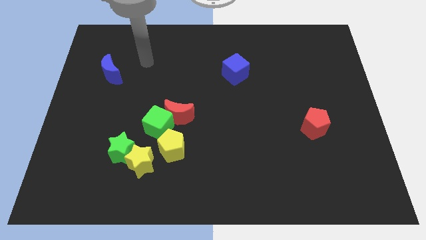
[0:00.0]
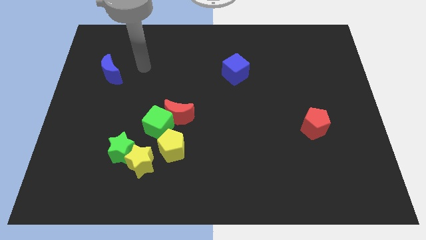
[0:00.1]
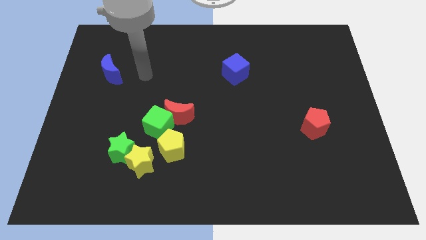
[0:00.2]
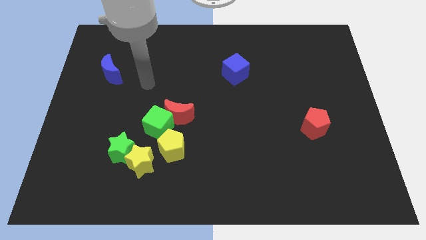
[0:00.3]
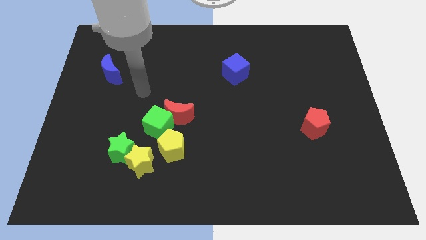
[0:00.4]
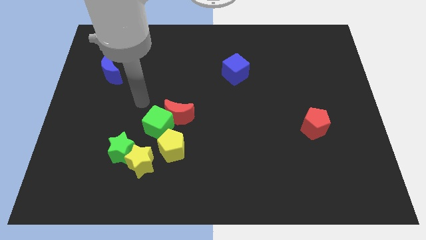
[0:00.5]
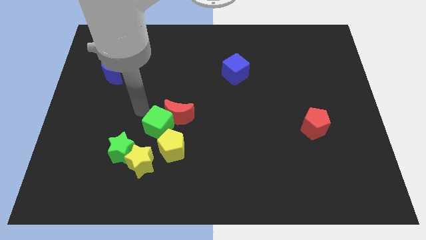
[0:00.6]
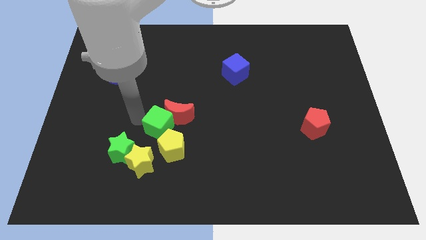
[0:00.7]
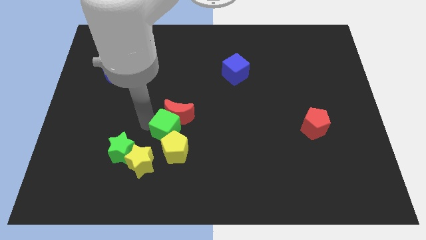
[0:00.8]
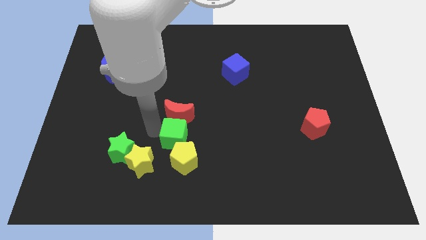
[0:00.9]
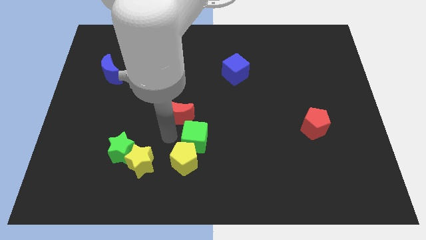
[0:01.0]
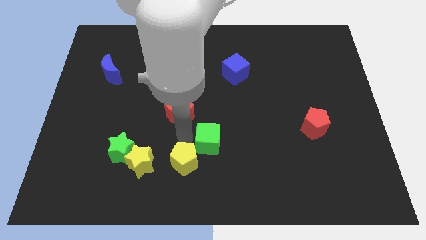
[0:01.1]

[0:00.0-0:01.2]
pull the red moon apart from the green cube and yellow pentagon

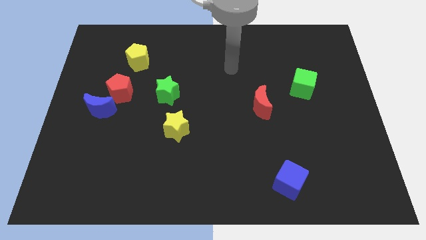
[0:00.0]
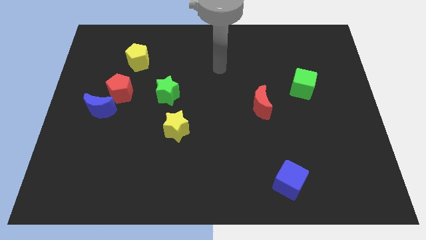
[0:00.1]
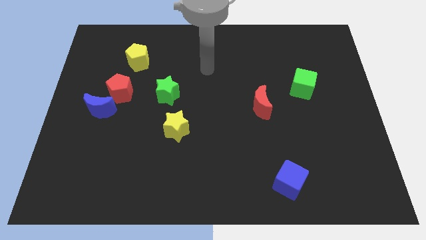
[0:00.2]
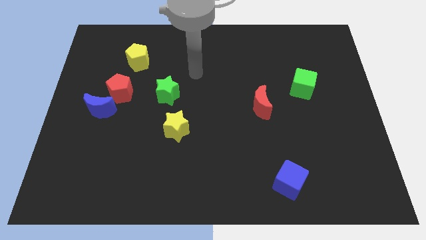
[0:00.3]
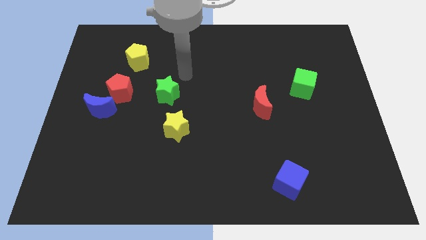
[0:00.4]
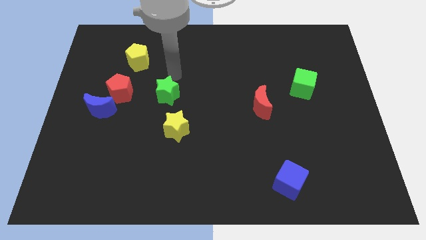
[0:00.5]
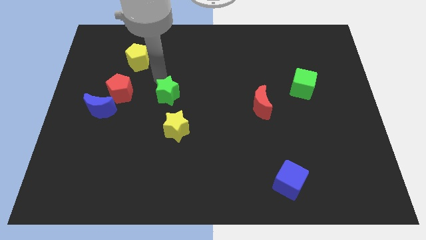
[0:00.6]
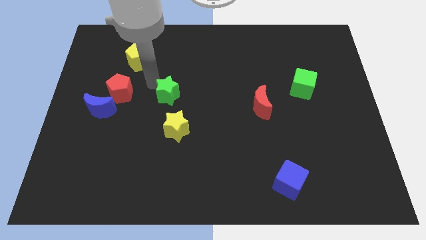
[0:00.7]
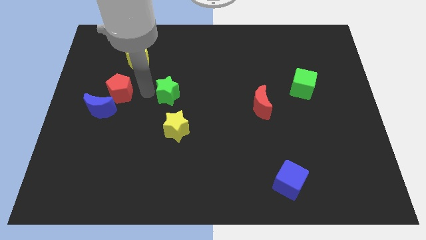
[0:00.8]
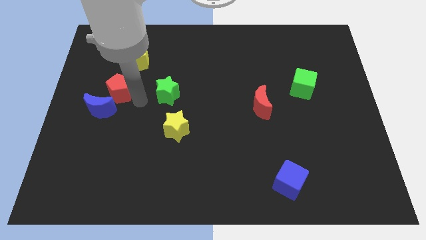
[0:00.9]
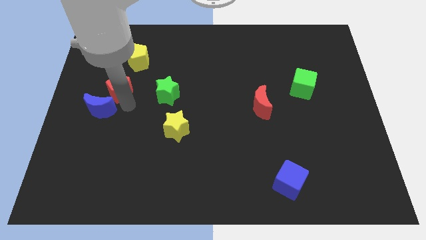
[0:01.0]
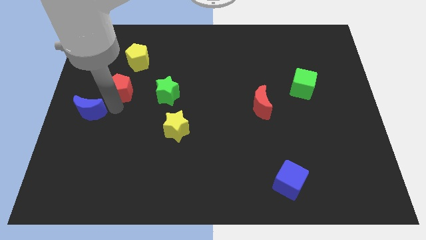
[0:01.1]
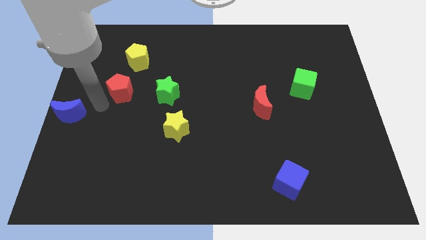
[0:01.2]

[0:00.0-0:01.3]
pull the red pentagon apart from the blue moon

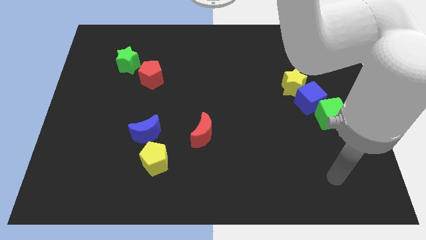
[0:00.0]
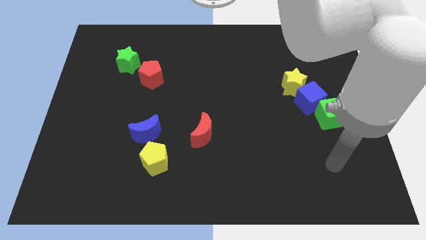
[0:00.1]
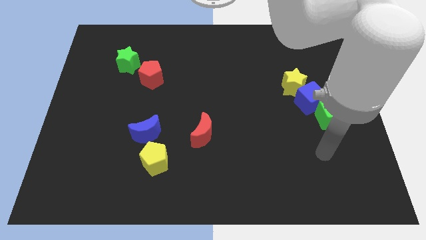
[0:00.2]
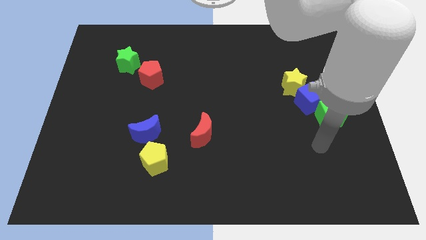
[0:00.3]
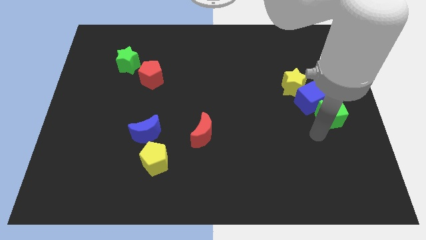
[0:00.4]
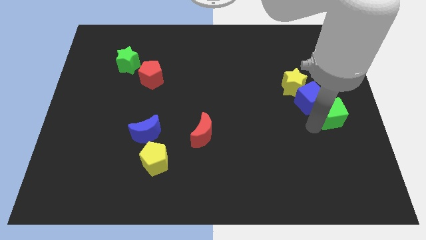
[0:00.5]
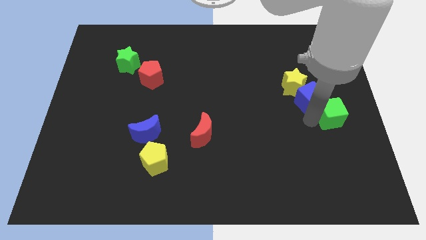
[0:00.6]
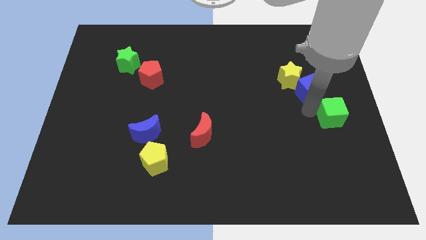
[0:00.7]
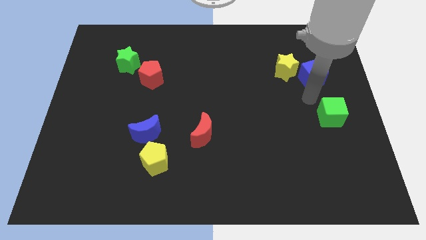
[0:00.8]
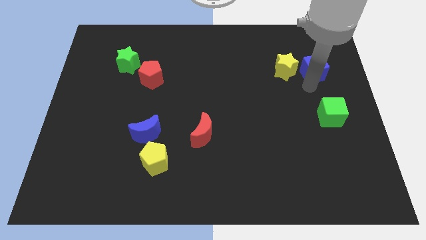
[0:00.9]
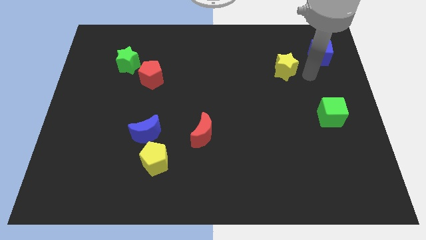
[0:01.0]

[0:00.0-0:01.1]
separate the yellow star from the blue cube

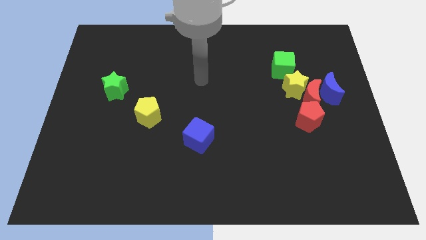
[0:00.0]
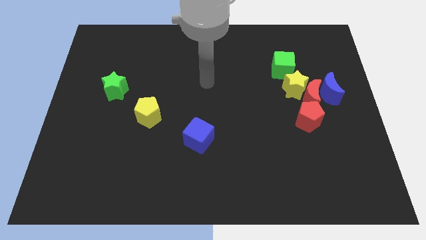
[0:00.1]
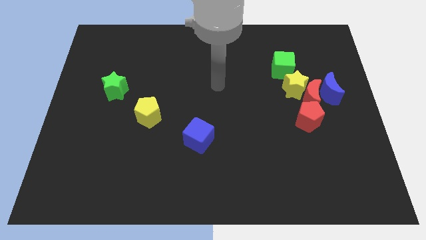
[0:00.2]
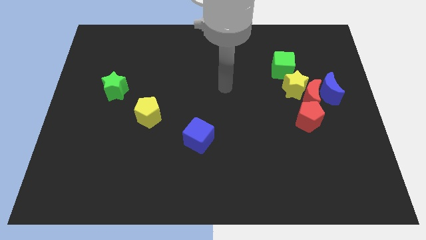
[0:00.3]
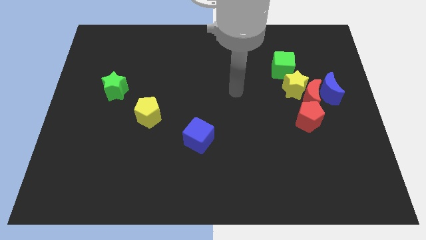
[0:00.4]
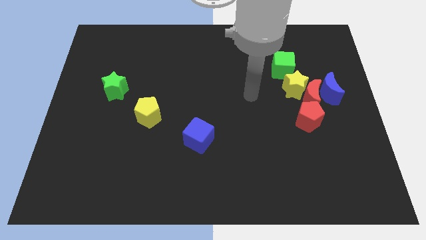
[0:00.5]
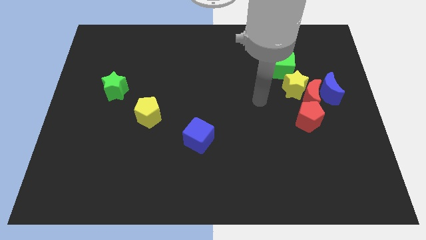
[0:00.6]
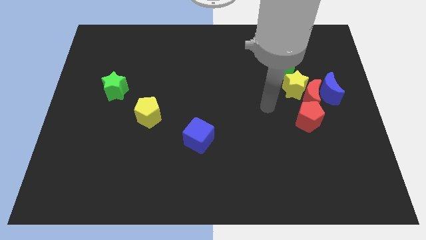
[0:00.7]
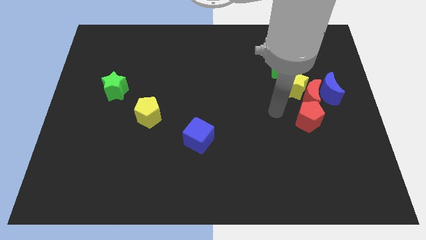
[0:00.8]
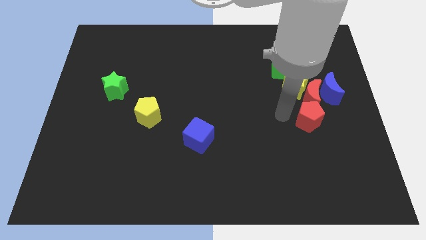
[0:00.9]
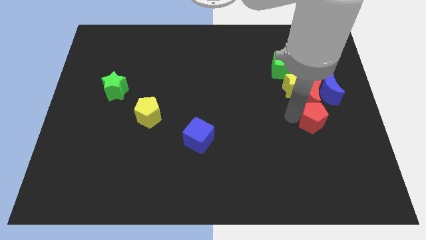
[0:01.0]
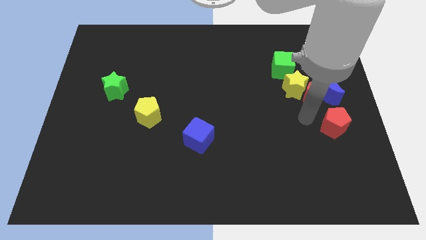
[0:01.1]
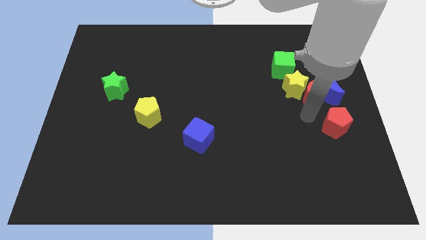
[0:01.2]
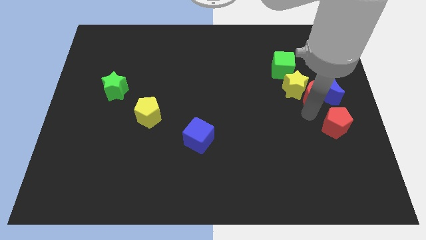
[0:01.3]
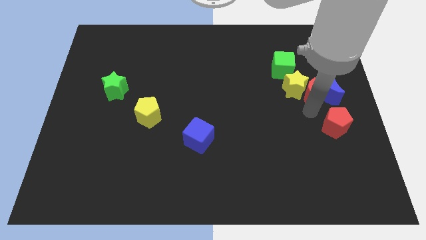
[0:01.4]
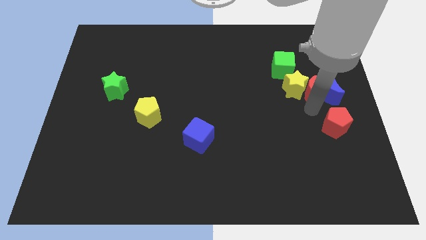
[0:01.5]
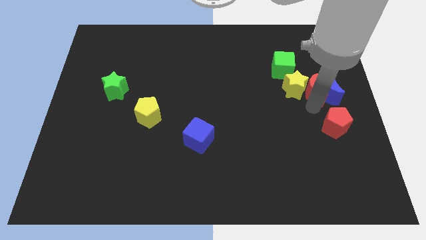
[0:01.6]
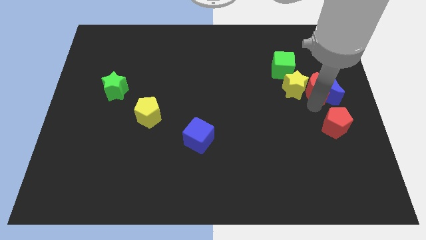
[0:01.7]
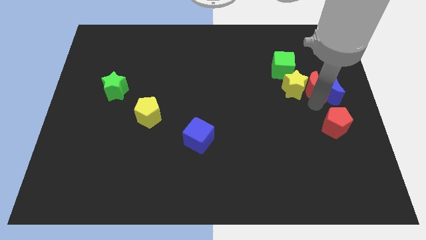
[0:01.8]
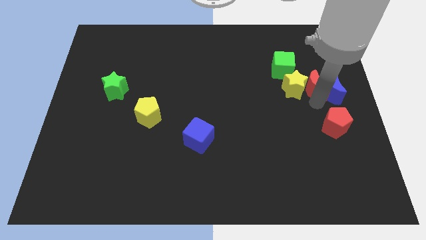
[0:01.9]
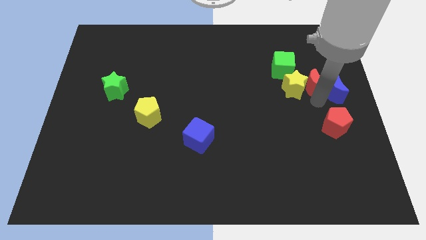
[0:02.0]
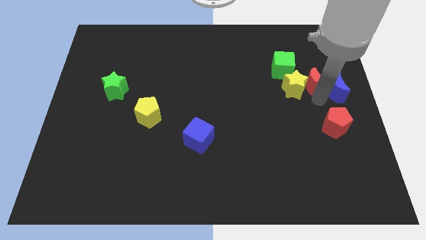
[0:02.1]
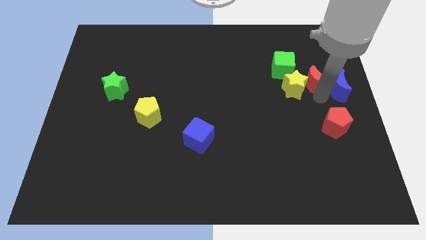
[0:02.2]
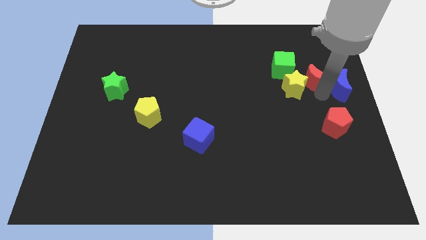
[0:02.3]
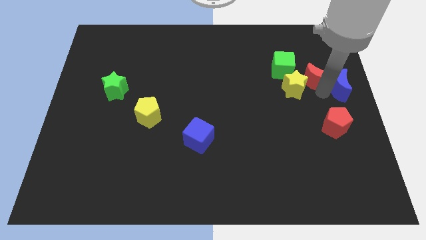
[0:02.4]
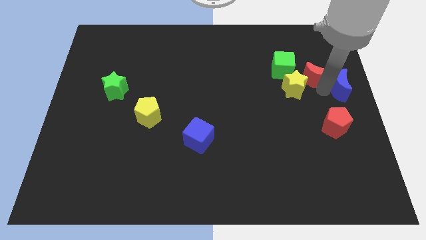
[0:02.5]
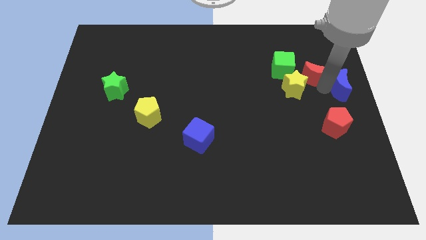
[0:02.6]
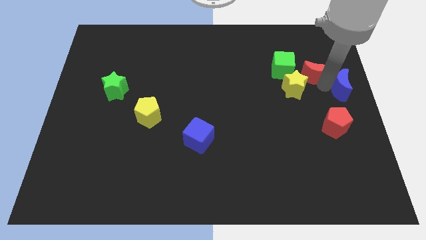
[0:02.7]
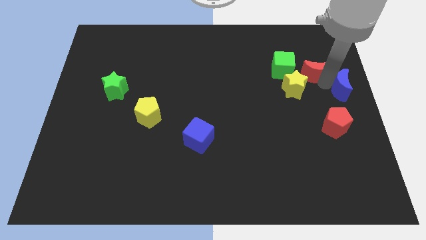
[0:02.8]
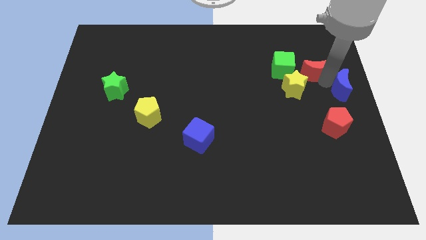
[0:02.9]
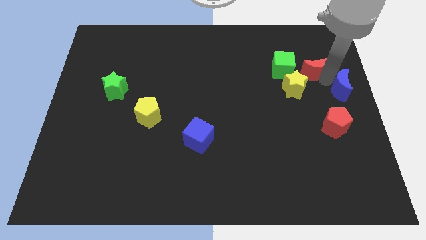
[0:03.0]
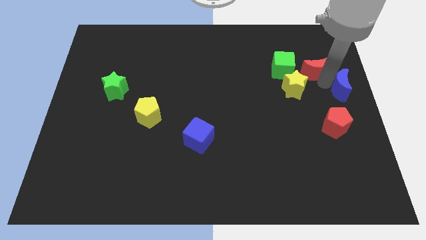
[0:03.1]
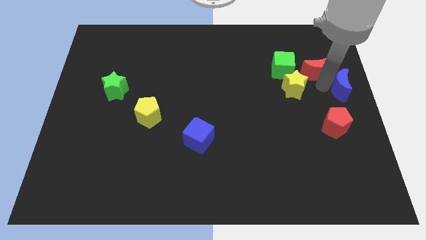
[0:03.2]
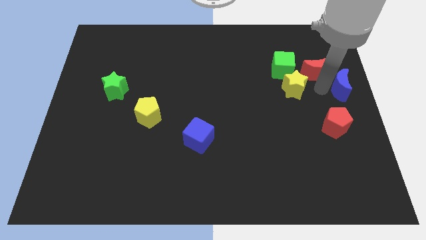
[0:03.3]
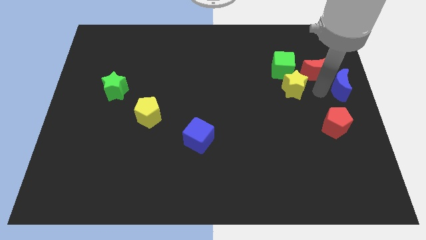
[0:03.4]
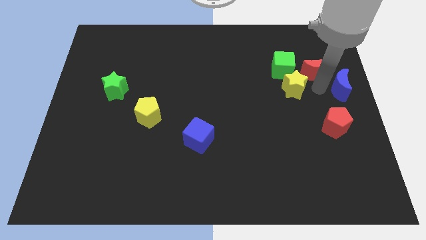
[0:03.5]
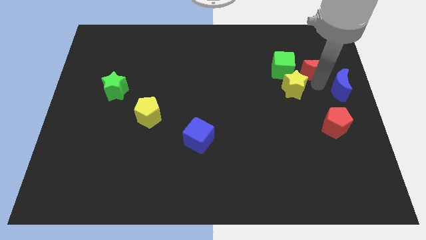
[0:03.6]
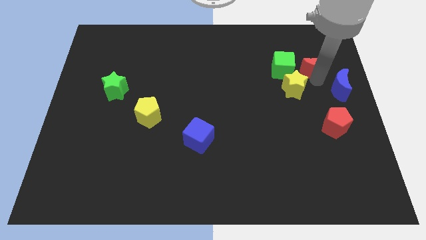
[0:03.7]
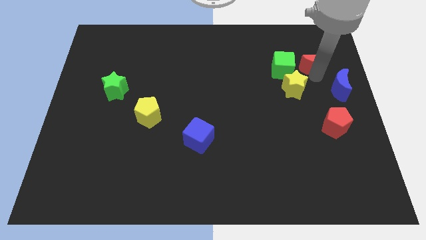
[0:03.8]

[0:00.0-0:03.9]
separate the red moon from the yellow star, blue moon, and red pentagon

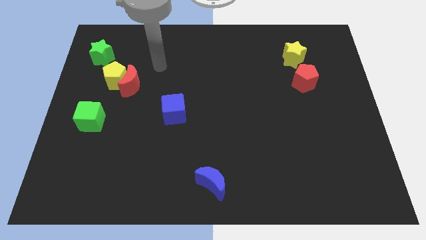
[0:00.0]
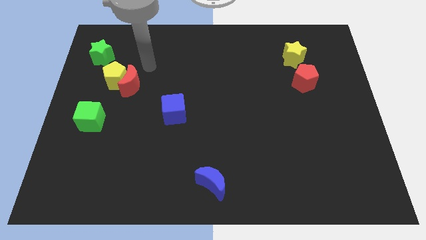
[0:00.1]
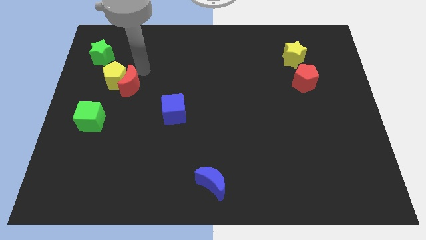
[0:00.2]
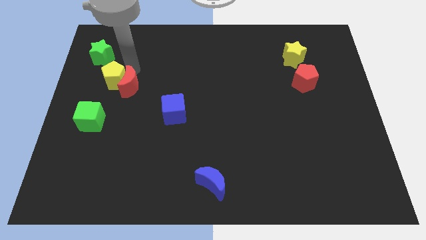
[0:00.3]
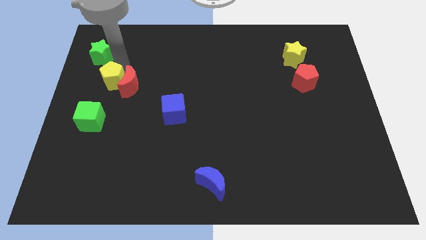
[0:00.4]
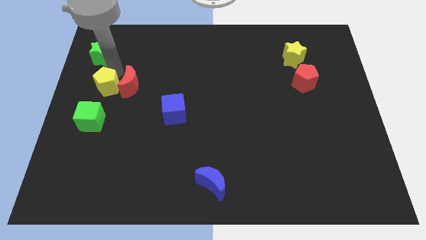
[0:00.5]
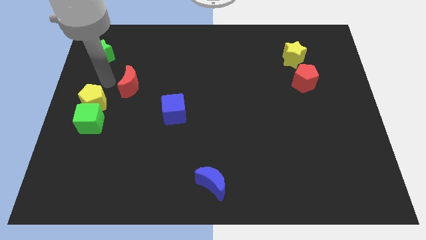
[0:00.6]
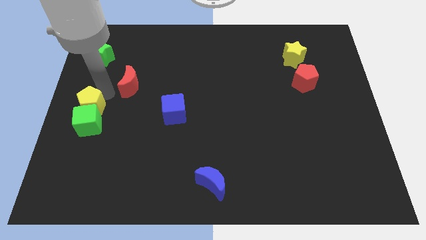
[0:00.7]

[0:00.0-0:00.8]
move the red moon away from the yellow pentagon

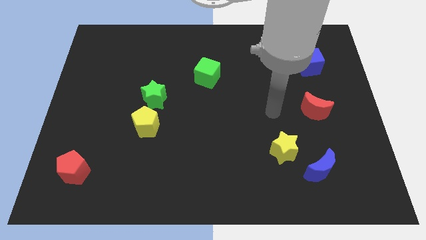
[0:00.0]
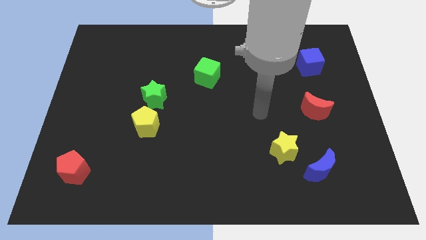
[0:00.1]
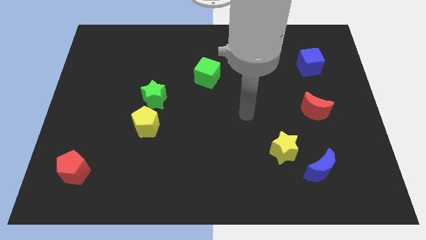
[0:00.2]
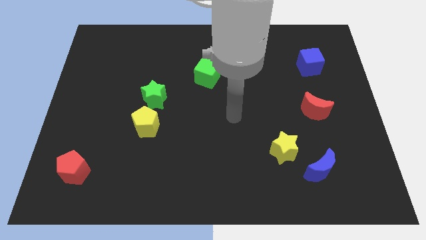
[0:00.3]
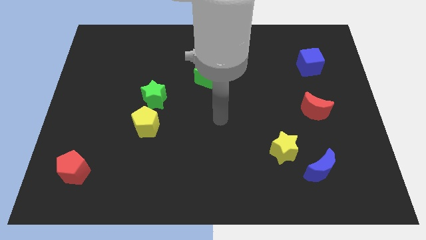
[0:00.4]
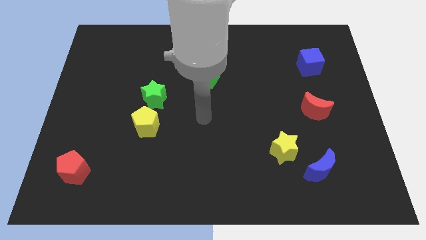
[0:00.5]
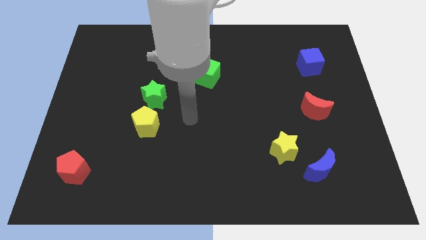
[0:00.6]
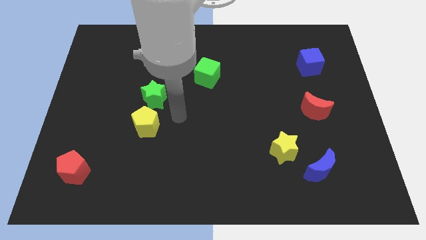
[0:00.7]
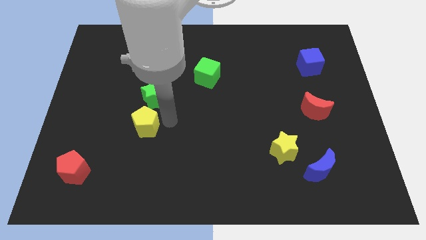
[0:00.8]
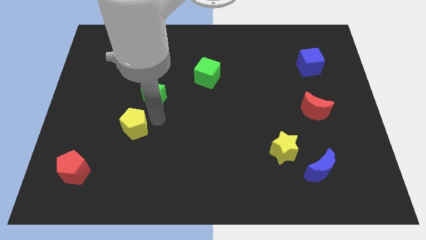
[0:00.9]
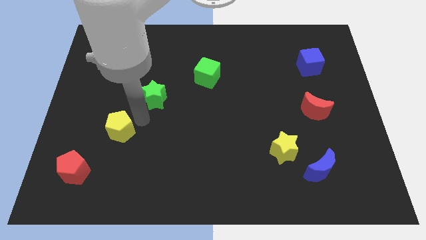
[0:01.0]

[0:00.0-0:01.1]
pull the green star apart from the yellow pentagon
